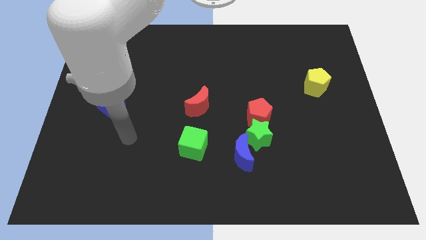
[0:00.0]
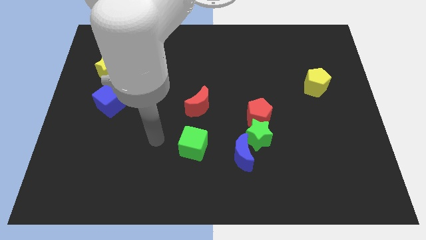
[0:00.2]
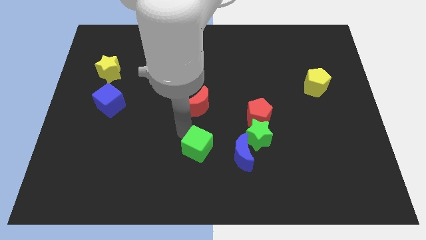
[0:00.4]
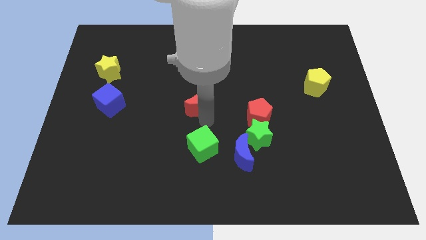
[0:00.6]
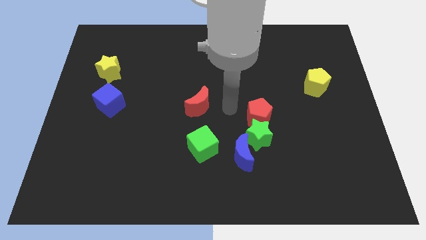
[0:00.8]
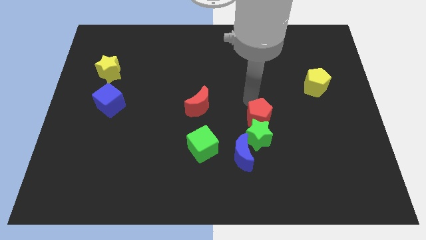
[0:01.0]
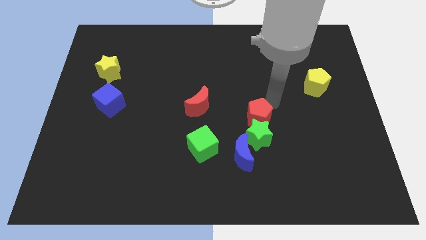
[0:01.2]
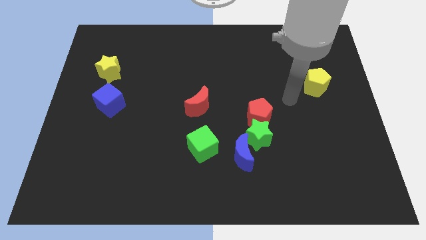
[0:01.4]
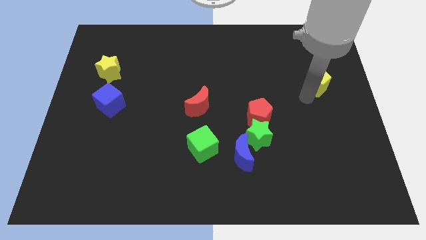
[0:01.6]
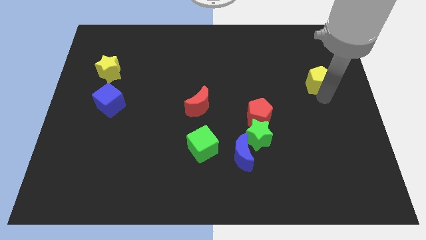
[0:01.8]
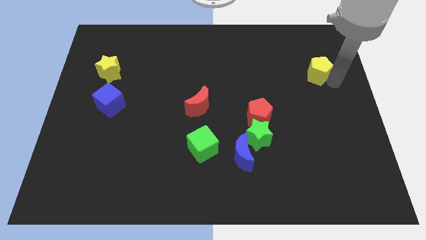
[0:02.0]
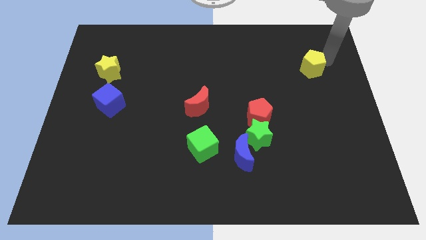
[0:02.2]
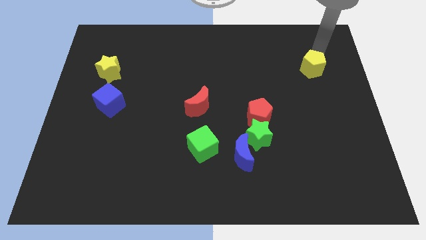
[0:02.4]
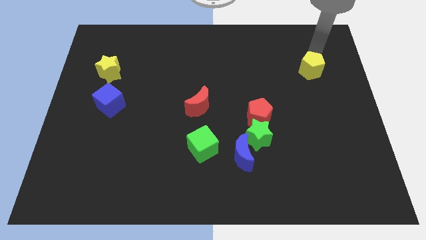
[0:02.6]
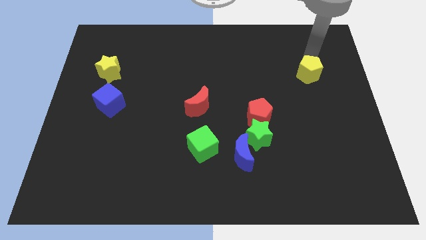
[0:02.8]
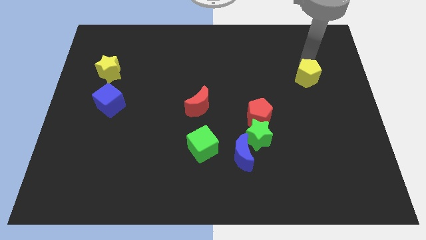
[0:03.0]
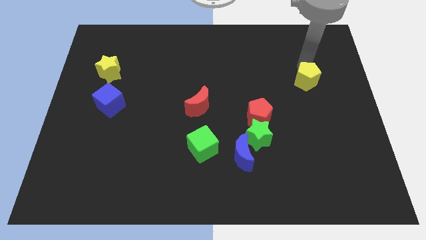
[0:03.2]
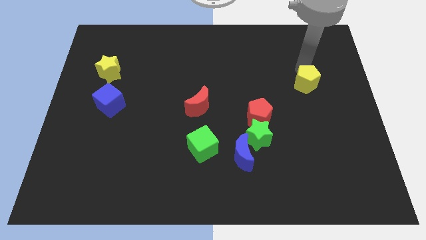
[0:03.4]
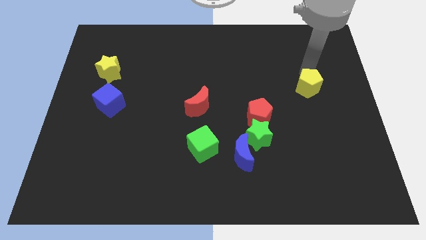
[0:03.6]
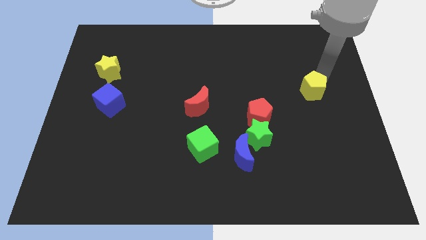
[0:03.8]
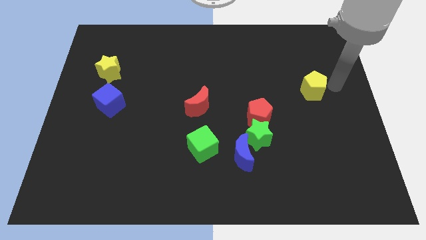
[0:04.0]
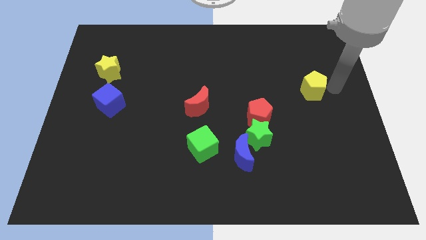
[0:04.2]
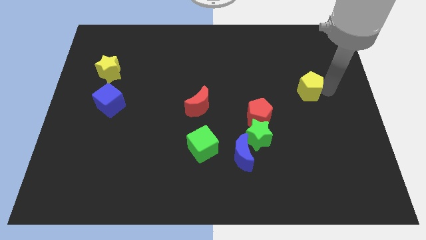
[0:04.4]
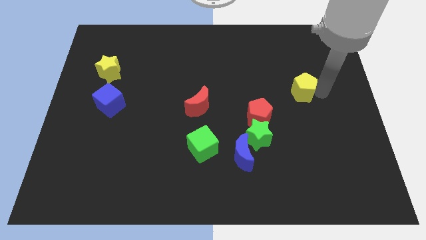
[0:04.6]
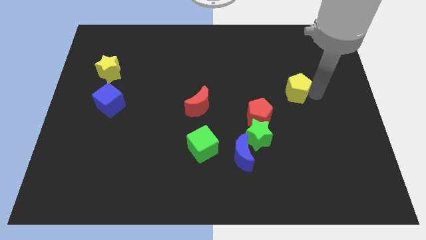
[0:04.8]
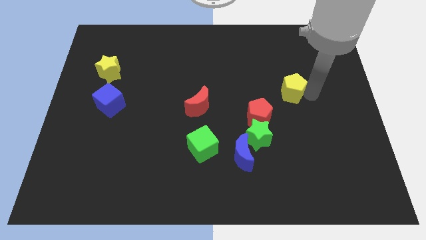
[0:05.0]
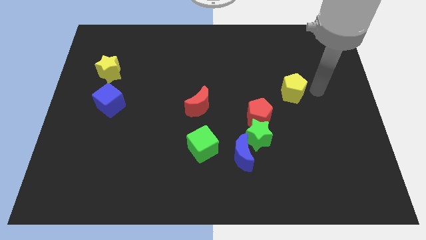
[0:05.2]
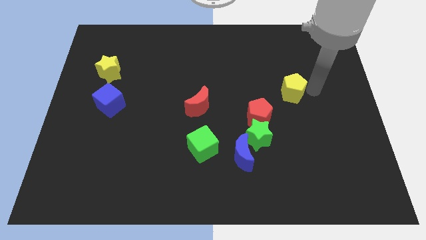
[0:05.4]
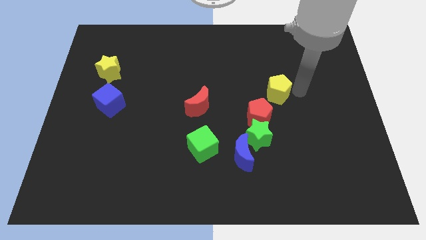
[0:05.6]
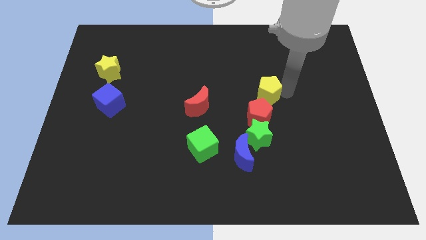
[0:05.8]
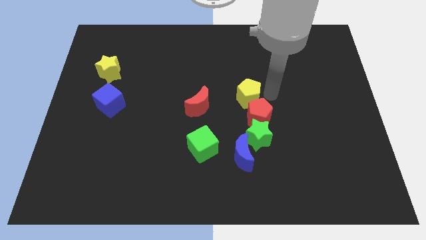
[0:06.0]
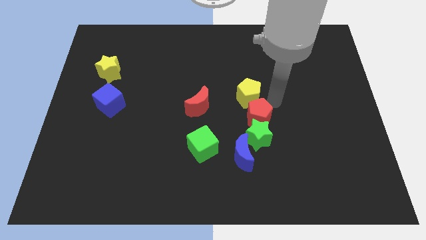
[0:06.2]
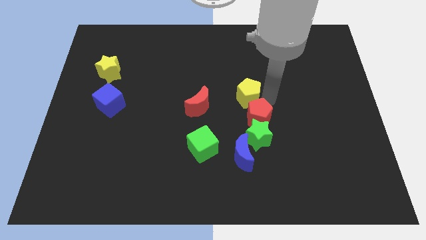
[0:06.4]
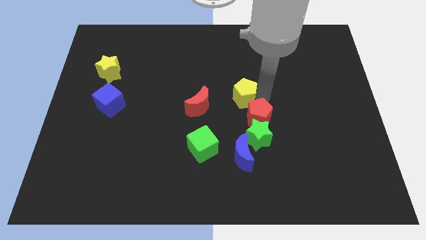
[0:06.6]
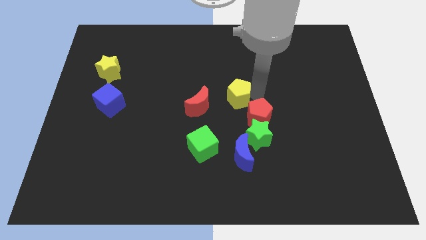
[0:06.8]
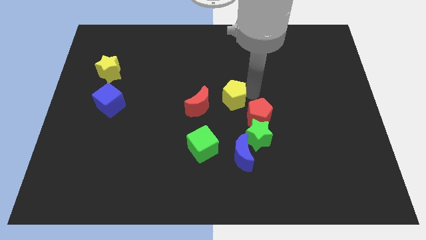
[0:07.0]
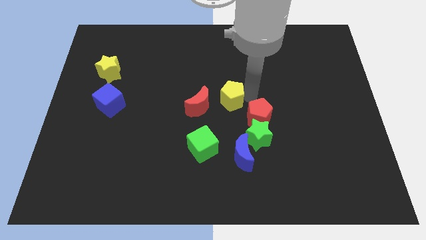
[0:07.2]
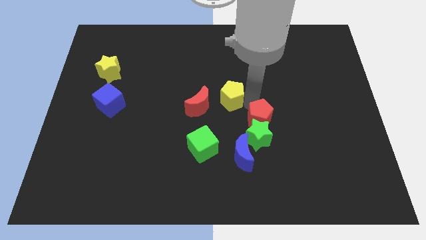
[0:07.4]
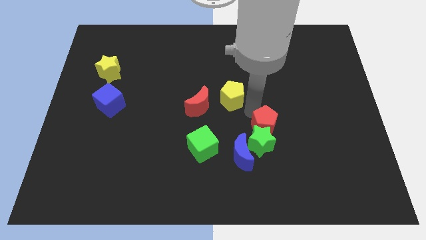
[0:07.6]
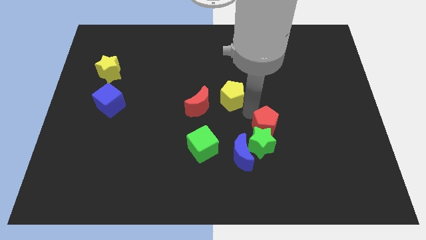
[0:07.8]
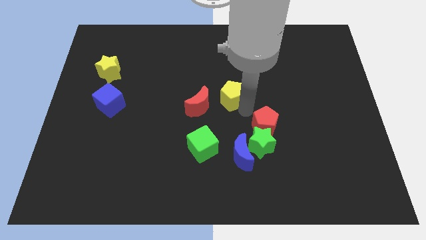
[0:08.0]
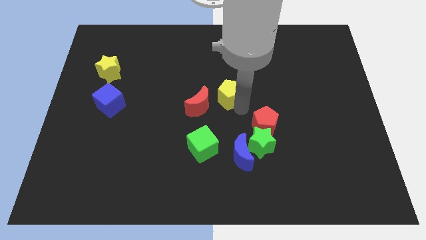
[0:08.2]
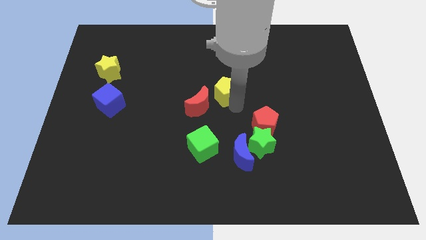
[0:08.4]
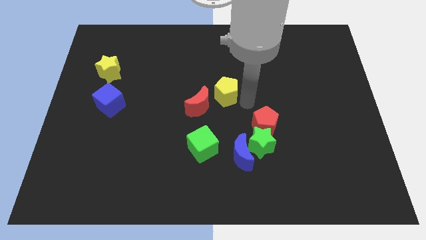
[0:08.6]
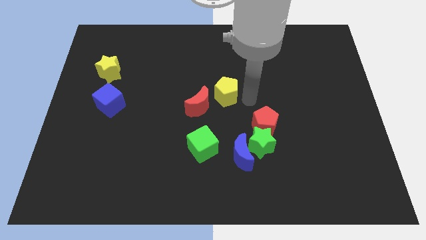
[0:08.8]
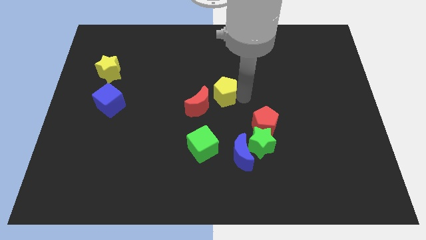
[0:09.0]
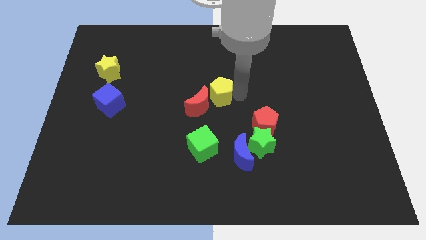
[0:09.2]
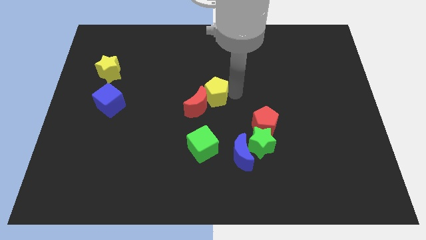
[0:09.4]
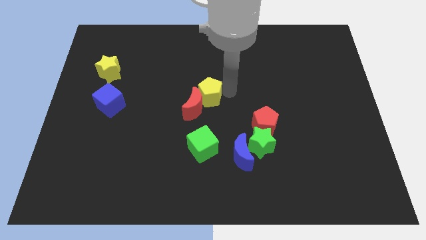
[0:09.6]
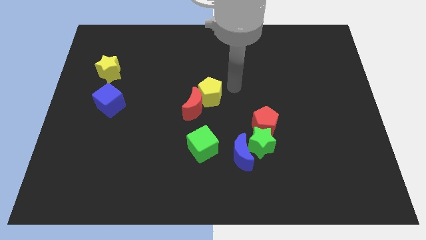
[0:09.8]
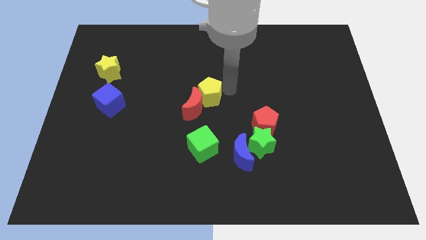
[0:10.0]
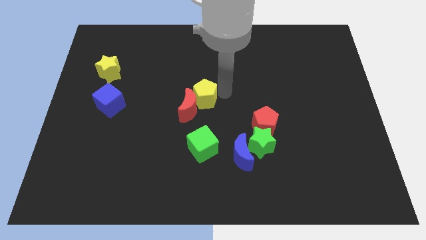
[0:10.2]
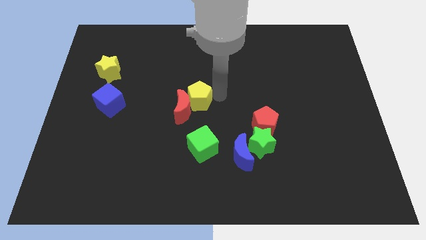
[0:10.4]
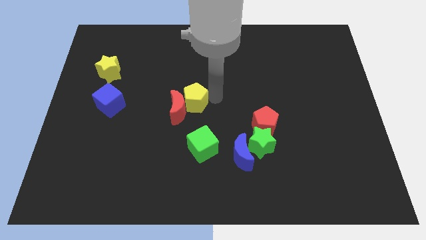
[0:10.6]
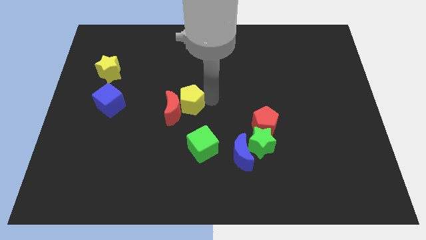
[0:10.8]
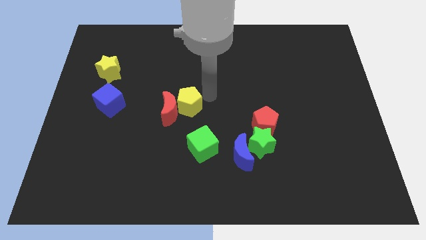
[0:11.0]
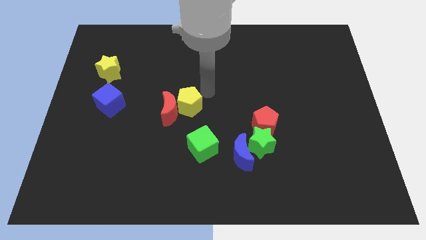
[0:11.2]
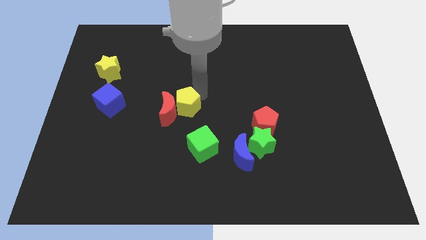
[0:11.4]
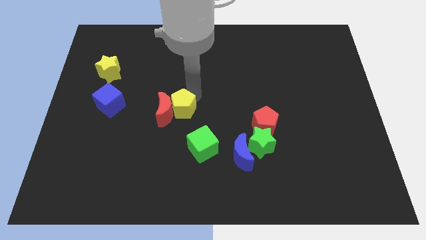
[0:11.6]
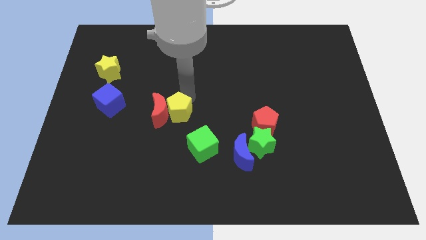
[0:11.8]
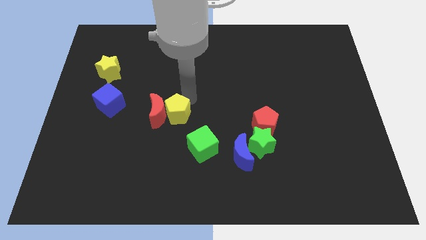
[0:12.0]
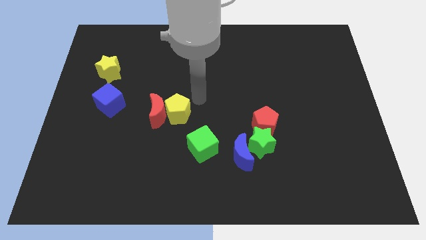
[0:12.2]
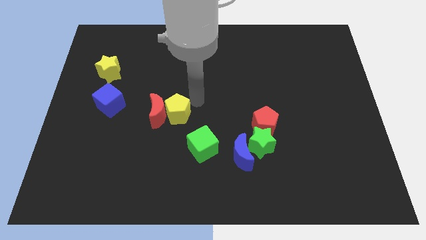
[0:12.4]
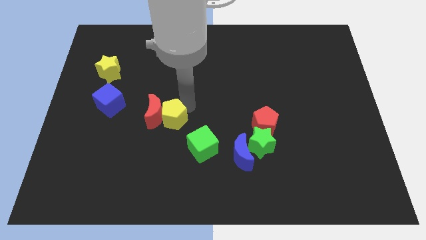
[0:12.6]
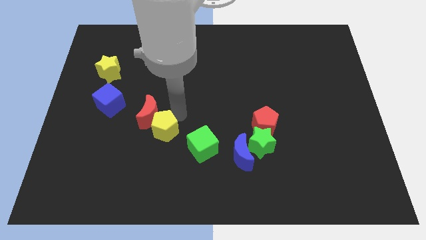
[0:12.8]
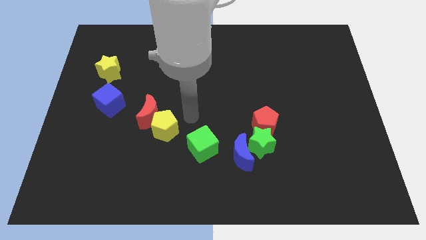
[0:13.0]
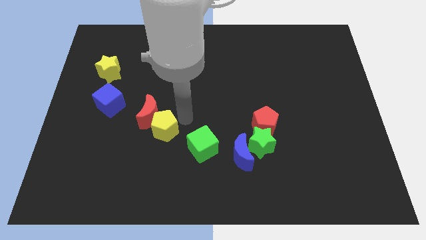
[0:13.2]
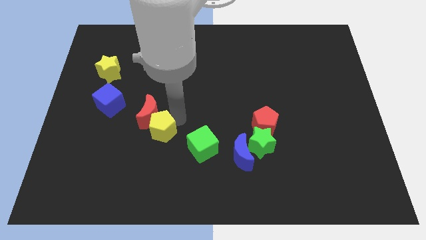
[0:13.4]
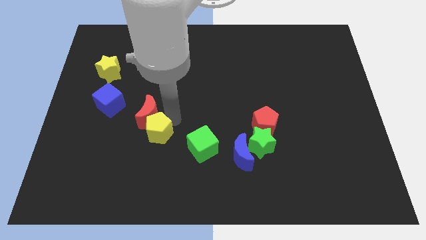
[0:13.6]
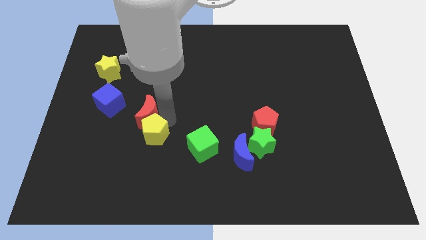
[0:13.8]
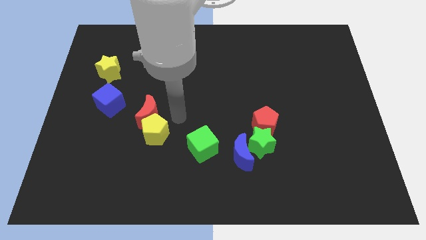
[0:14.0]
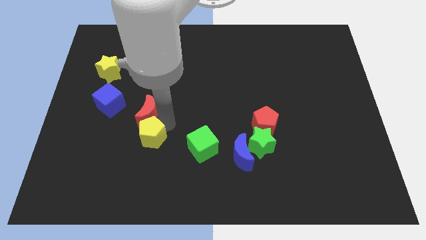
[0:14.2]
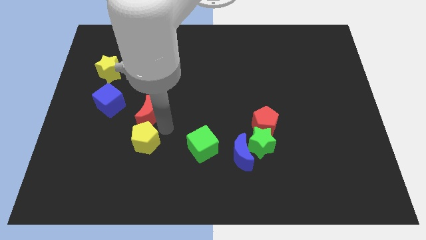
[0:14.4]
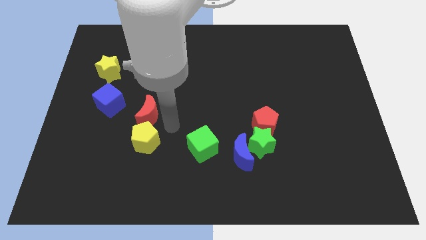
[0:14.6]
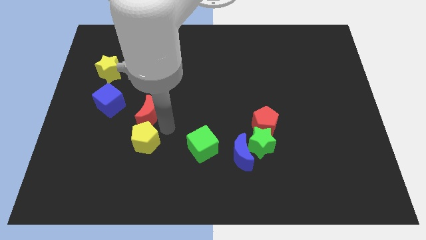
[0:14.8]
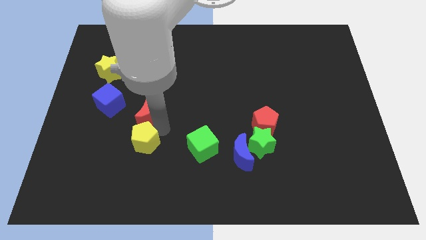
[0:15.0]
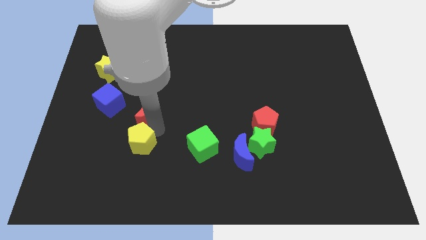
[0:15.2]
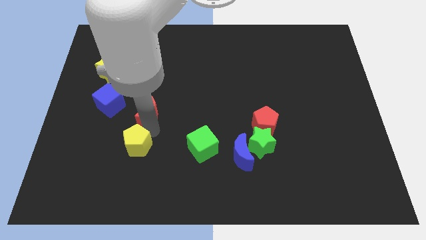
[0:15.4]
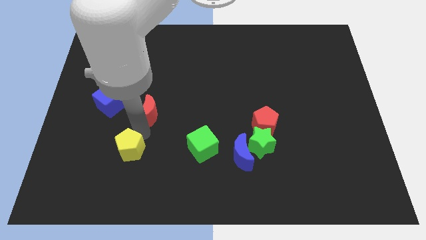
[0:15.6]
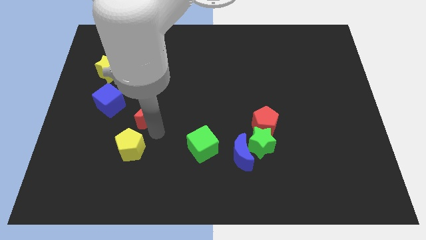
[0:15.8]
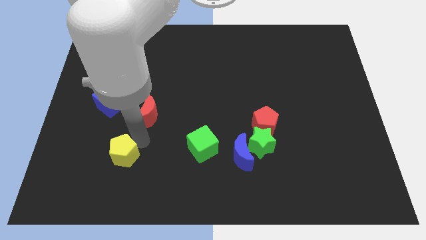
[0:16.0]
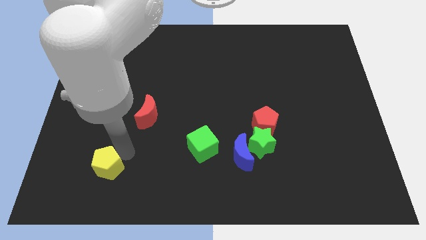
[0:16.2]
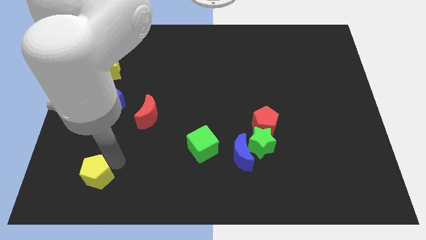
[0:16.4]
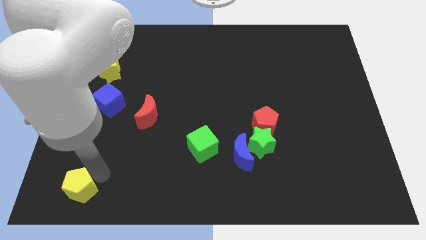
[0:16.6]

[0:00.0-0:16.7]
put the yellow pentagon to the bottom left corner
